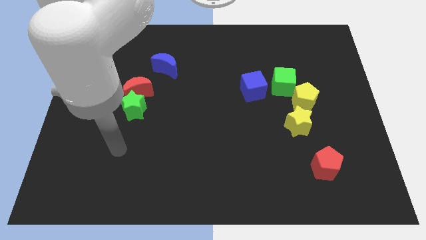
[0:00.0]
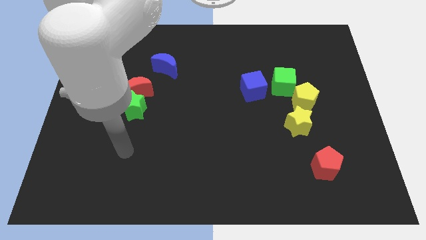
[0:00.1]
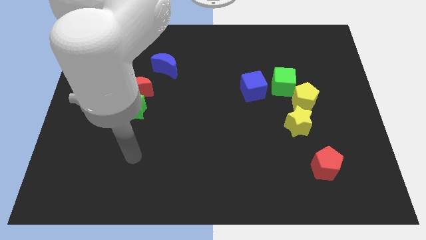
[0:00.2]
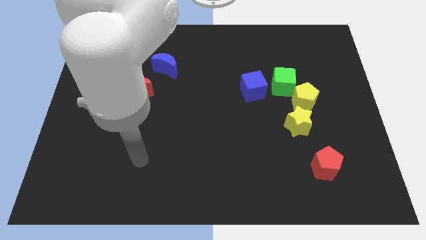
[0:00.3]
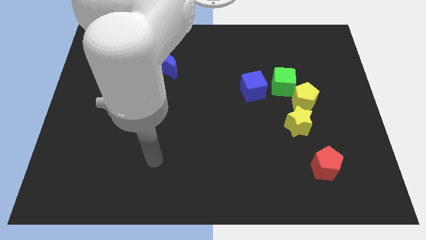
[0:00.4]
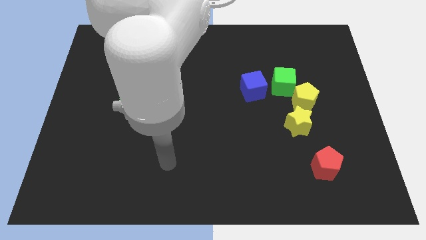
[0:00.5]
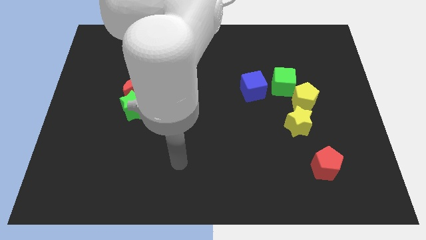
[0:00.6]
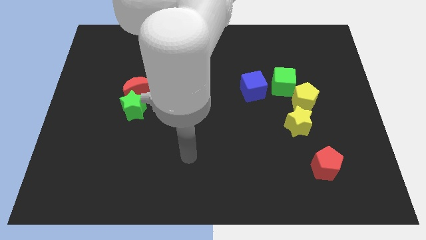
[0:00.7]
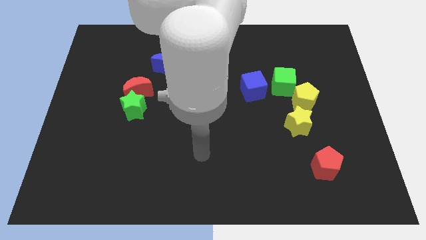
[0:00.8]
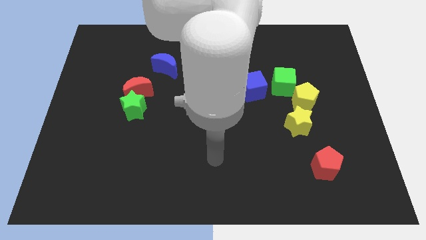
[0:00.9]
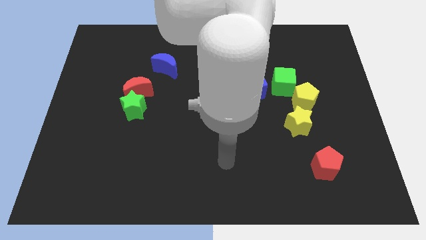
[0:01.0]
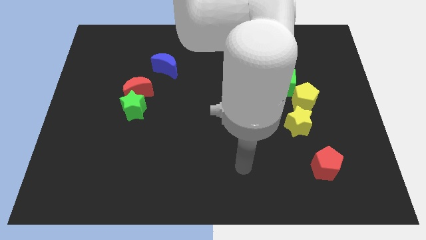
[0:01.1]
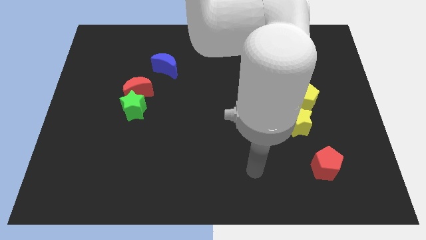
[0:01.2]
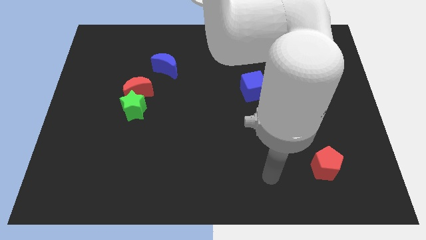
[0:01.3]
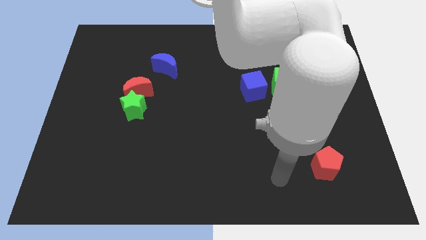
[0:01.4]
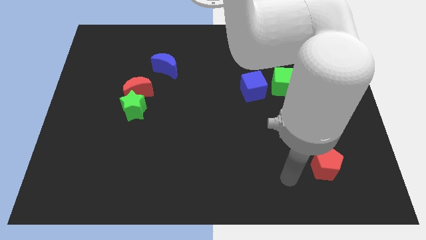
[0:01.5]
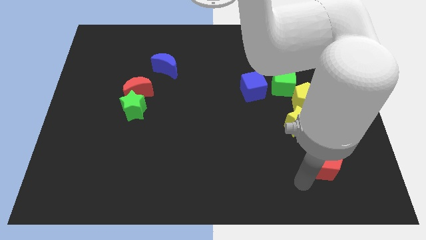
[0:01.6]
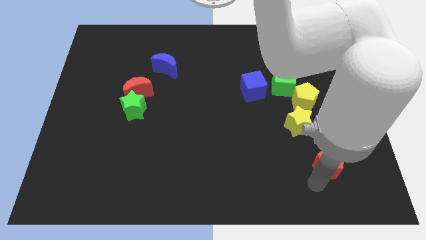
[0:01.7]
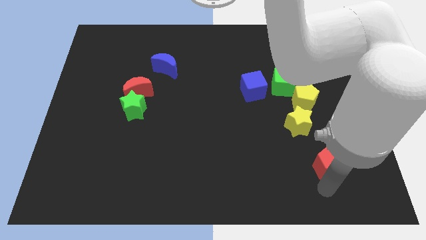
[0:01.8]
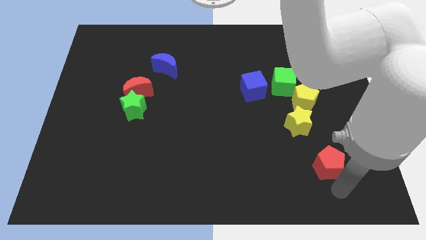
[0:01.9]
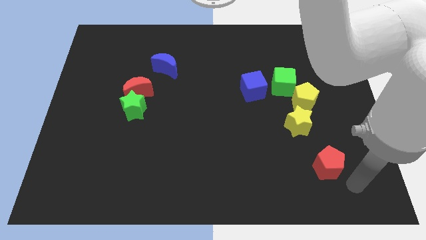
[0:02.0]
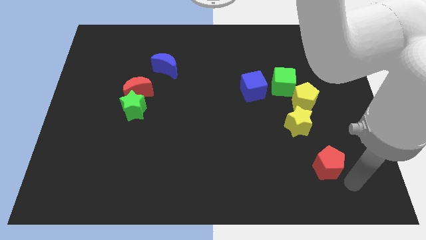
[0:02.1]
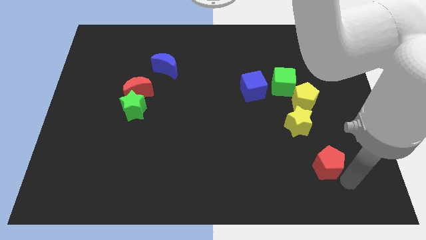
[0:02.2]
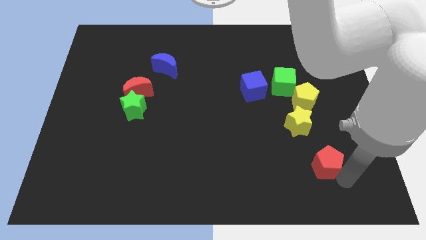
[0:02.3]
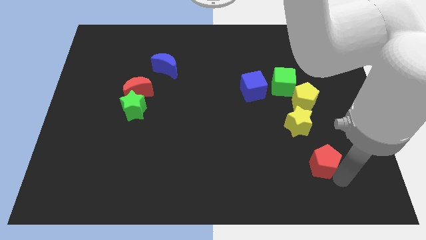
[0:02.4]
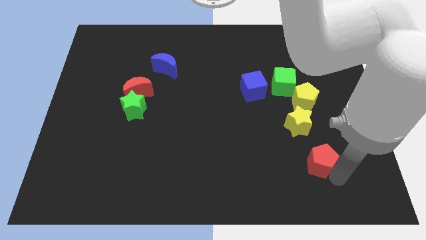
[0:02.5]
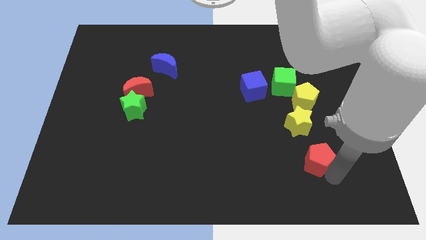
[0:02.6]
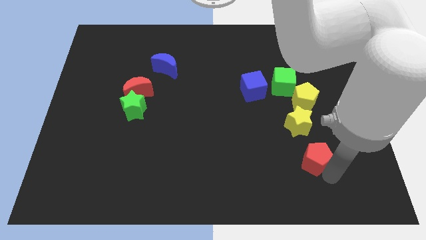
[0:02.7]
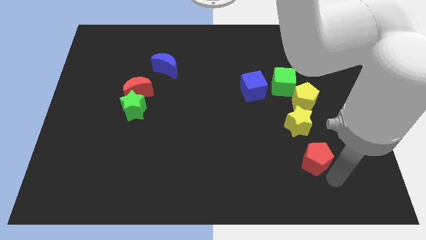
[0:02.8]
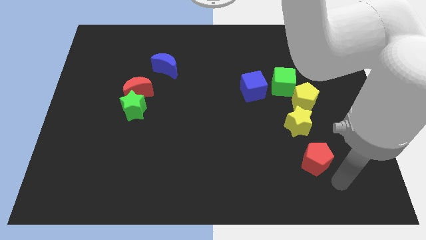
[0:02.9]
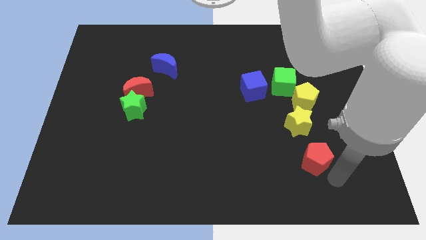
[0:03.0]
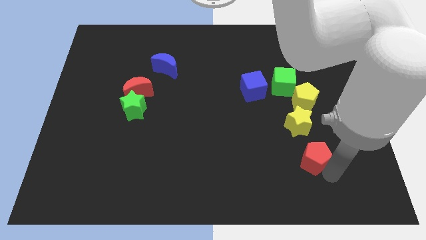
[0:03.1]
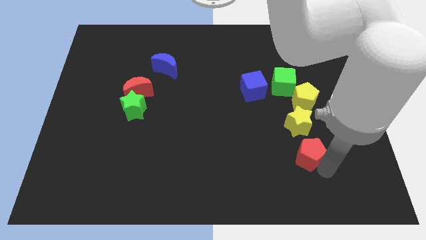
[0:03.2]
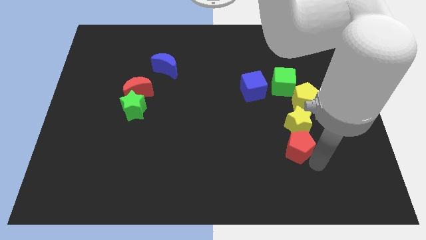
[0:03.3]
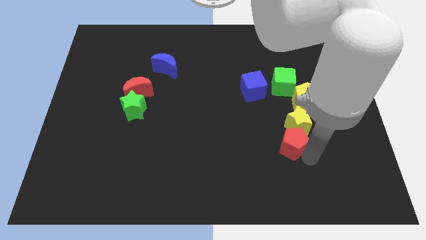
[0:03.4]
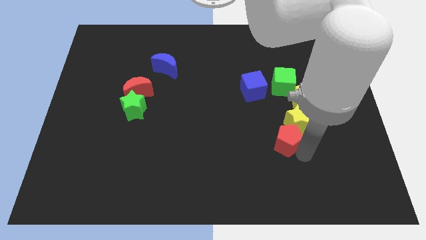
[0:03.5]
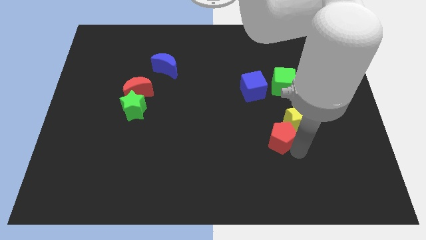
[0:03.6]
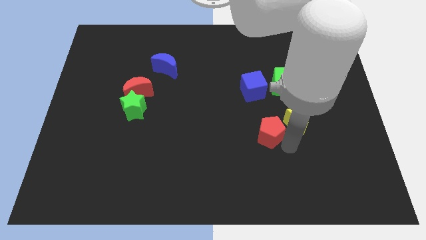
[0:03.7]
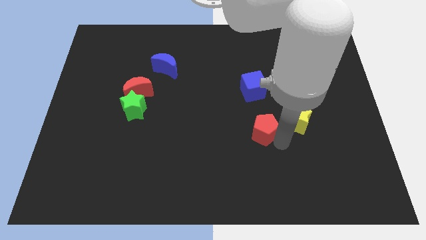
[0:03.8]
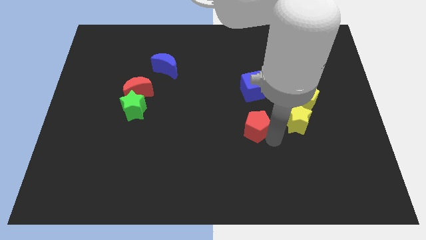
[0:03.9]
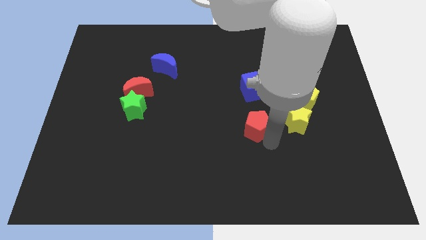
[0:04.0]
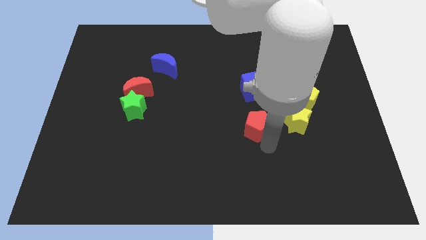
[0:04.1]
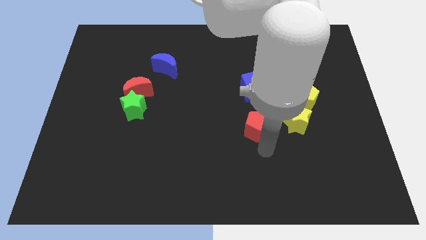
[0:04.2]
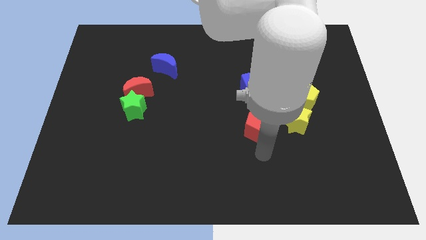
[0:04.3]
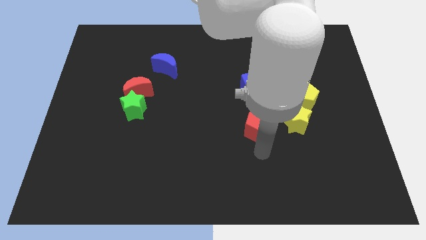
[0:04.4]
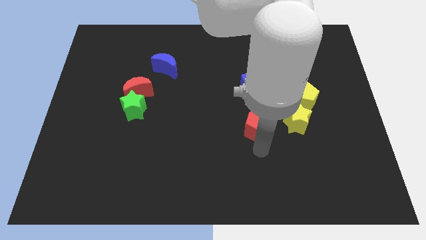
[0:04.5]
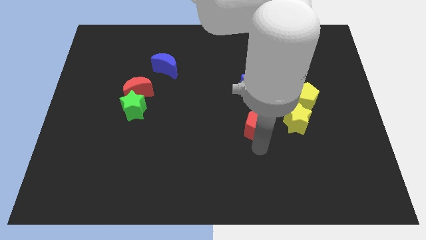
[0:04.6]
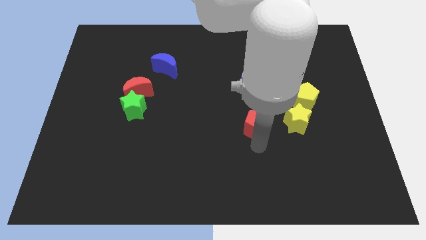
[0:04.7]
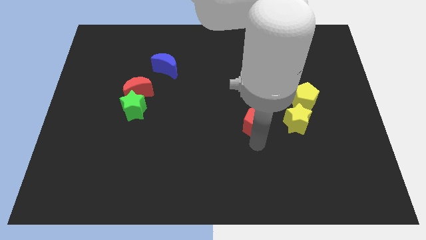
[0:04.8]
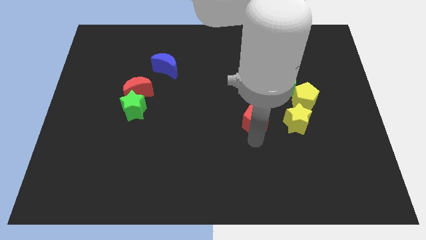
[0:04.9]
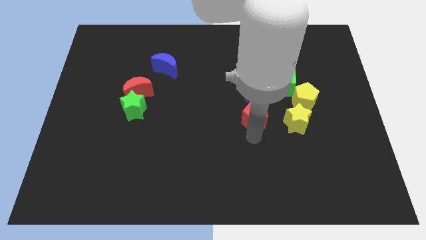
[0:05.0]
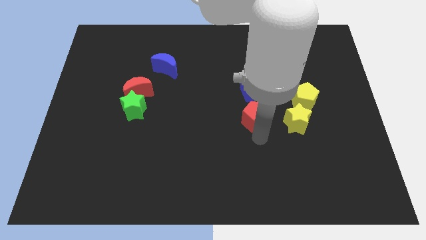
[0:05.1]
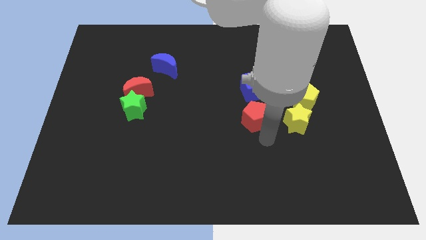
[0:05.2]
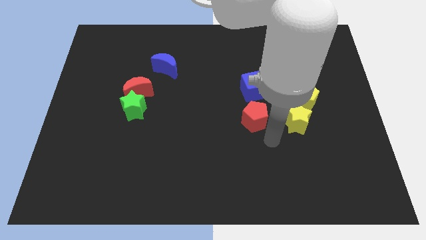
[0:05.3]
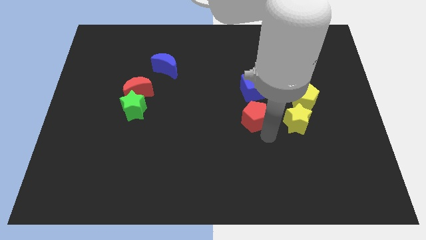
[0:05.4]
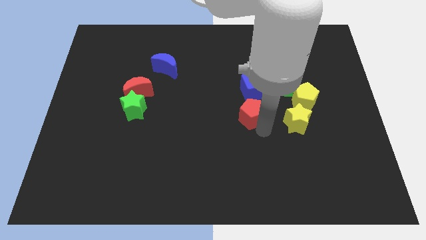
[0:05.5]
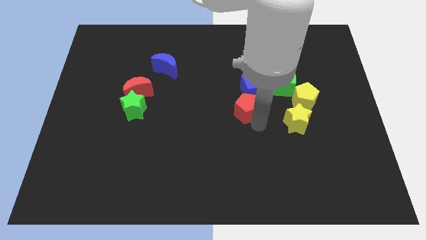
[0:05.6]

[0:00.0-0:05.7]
push the red pentagon up and left

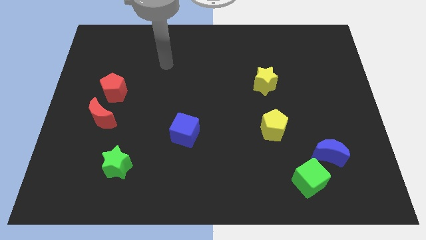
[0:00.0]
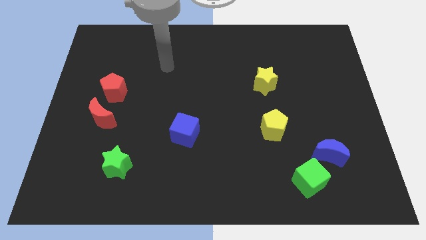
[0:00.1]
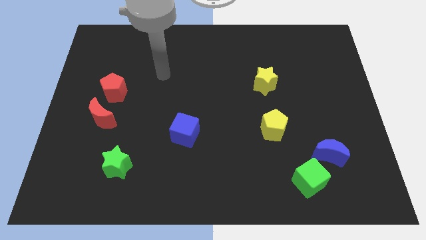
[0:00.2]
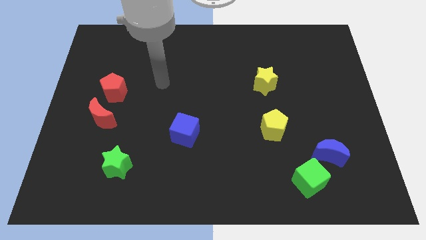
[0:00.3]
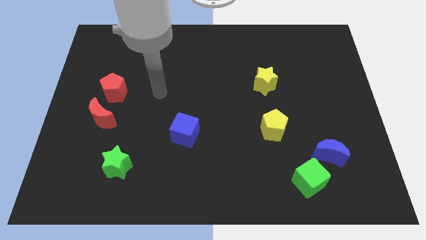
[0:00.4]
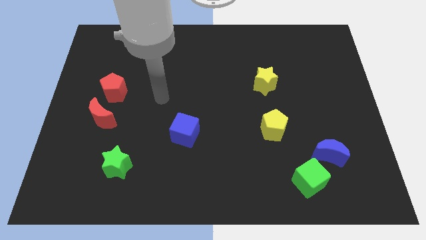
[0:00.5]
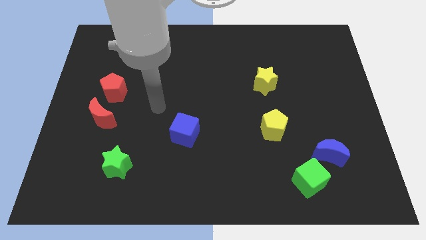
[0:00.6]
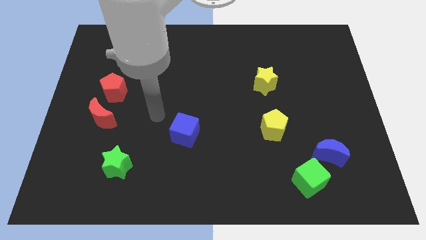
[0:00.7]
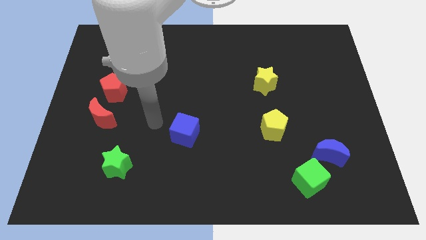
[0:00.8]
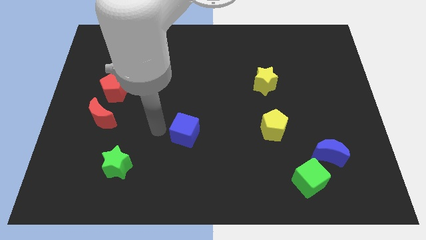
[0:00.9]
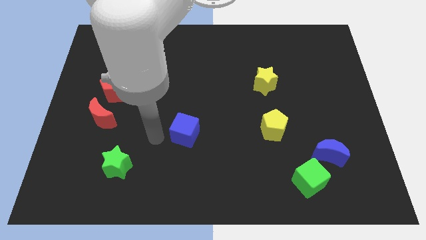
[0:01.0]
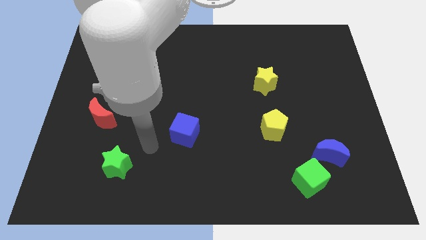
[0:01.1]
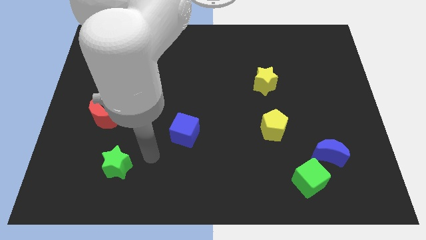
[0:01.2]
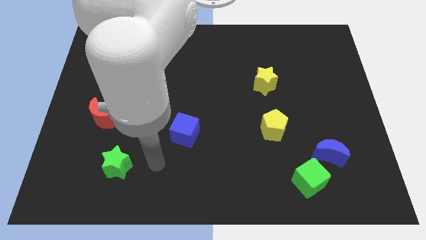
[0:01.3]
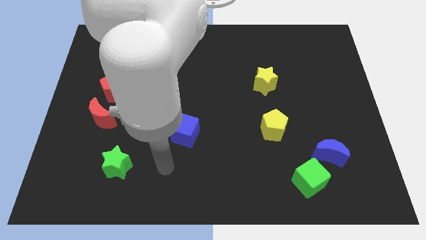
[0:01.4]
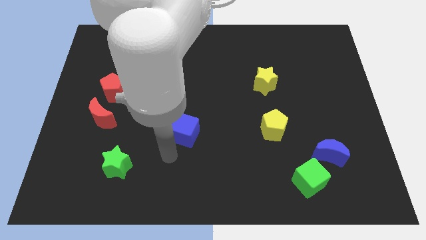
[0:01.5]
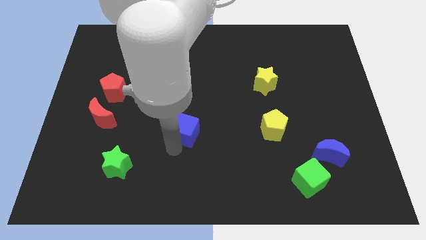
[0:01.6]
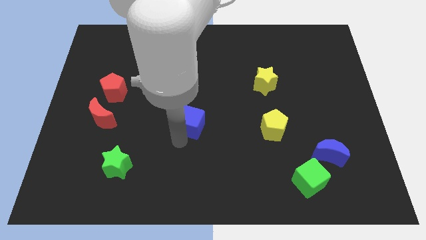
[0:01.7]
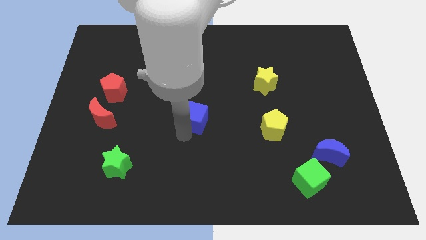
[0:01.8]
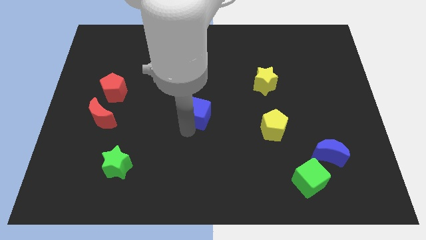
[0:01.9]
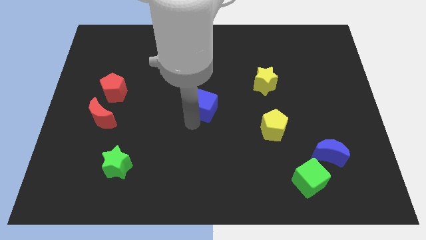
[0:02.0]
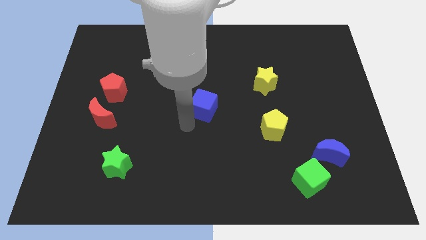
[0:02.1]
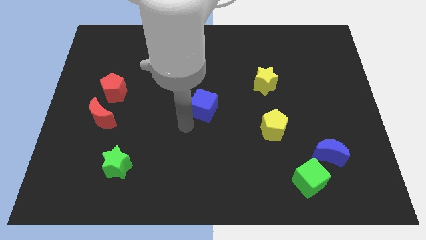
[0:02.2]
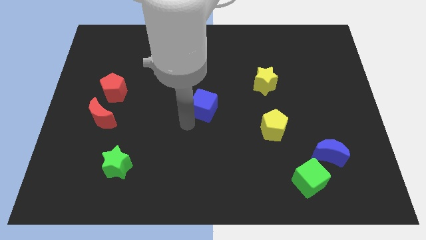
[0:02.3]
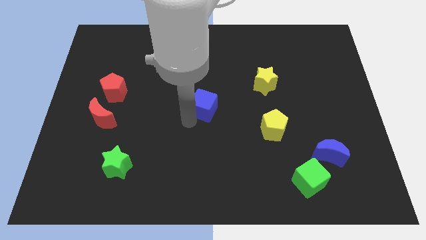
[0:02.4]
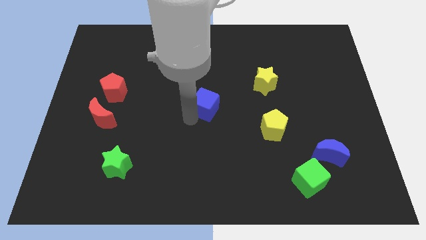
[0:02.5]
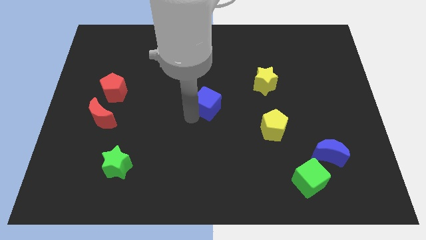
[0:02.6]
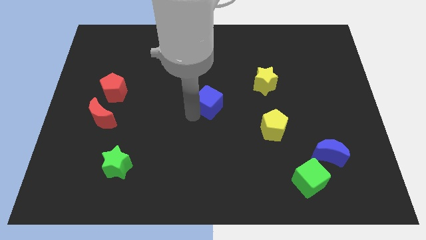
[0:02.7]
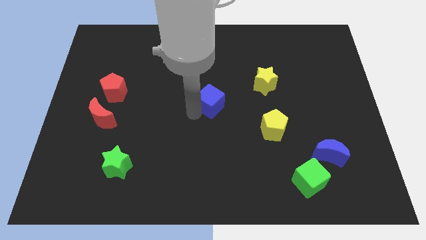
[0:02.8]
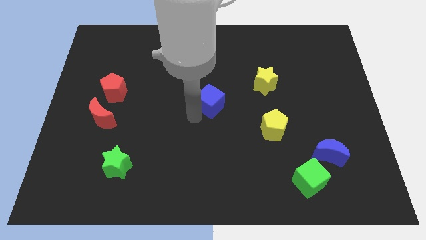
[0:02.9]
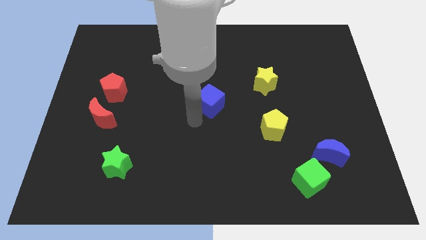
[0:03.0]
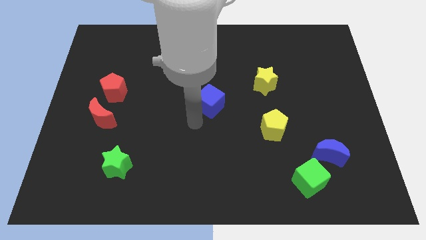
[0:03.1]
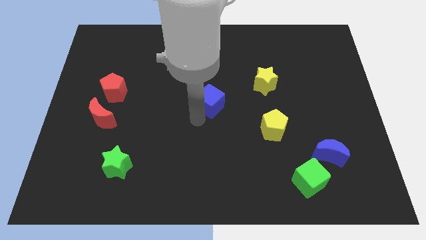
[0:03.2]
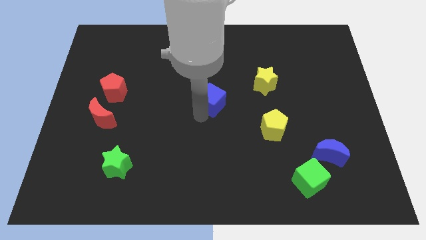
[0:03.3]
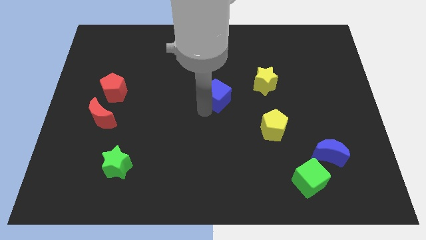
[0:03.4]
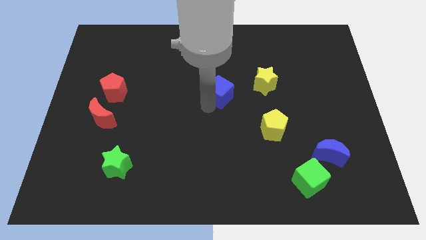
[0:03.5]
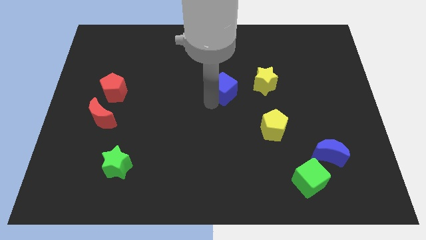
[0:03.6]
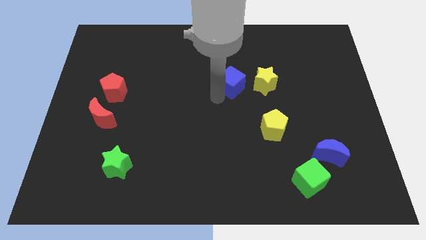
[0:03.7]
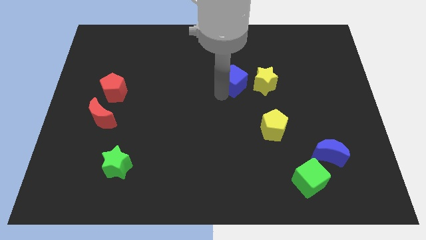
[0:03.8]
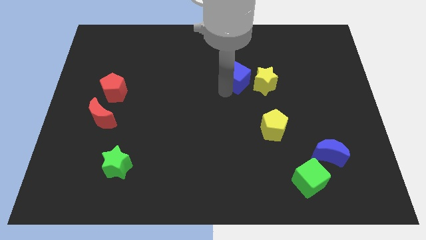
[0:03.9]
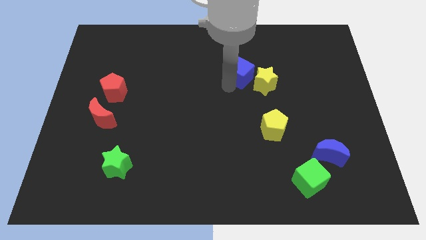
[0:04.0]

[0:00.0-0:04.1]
move the blue cube diagonally up and right
